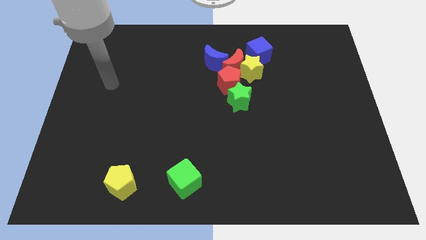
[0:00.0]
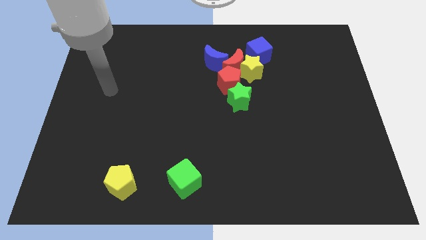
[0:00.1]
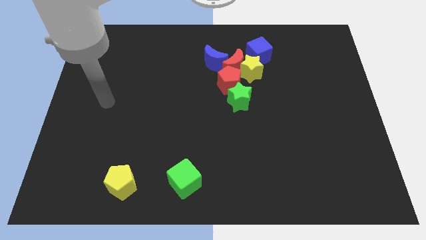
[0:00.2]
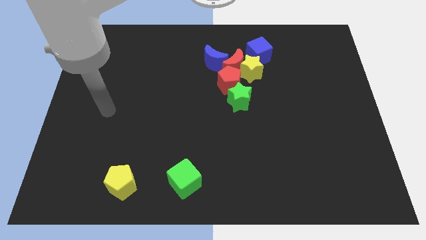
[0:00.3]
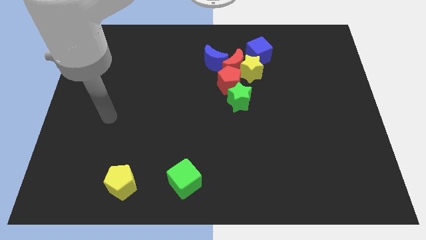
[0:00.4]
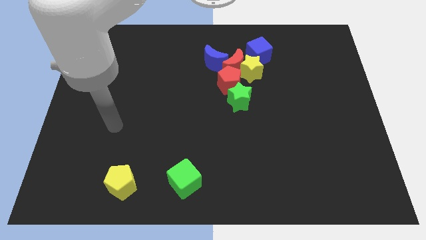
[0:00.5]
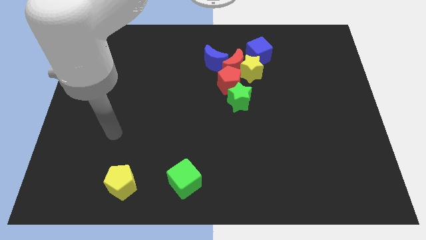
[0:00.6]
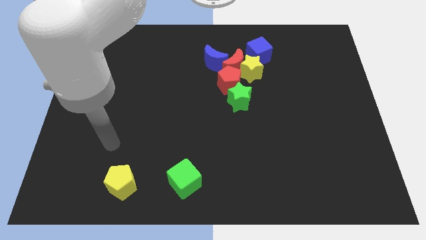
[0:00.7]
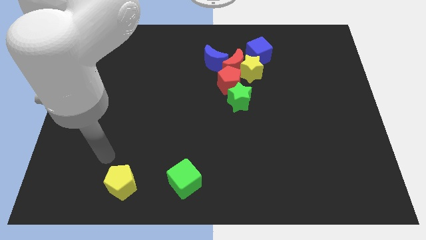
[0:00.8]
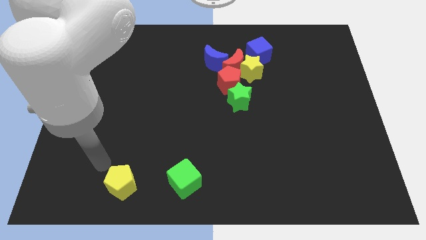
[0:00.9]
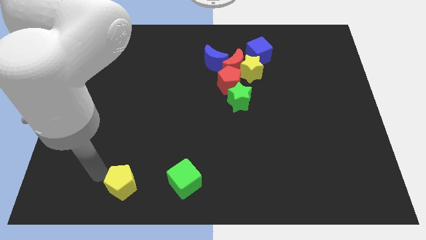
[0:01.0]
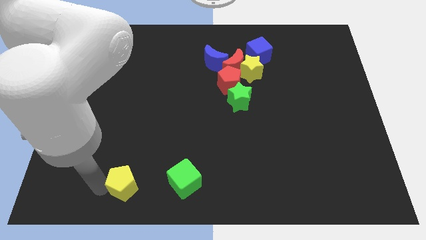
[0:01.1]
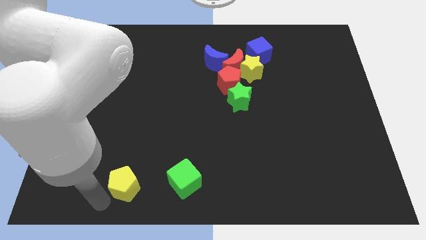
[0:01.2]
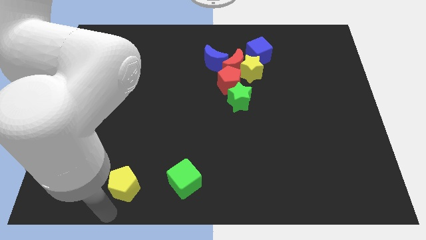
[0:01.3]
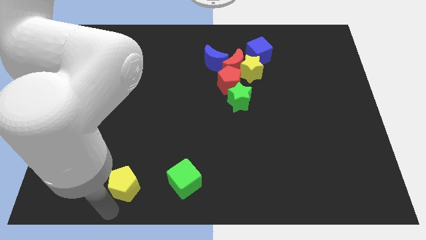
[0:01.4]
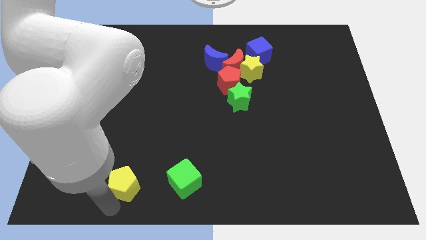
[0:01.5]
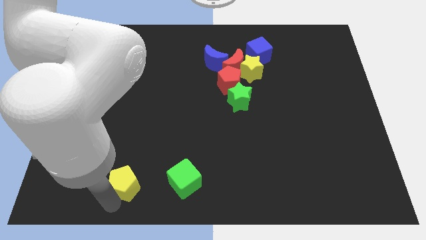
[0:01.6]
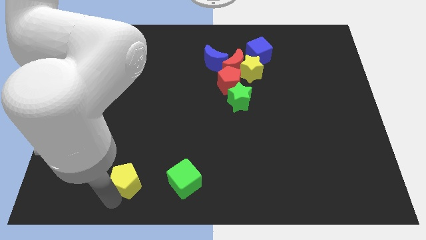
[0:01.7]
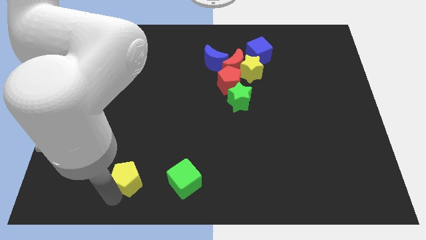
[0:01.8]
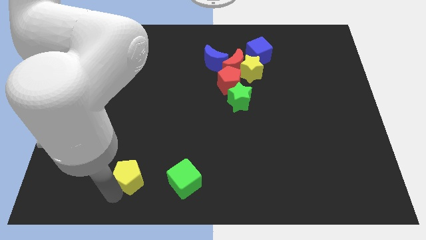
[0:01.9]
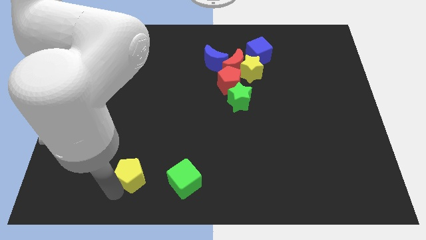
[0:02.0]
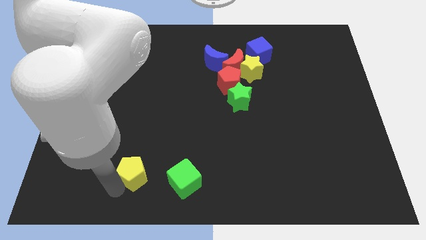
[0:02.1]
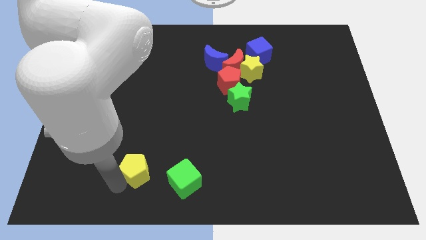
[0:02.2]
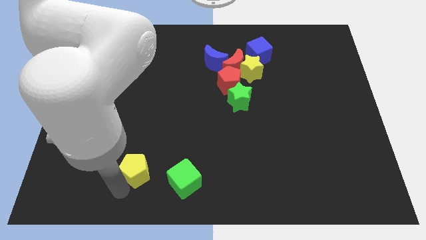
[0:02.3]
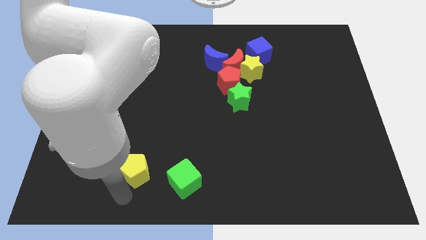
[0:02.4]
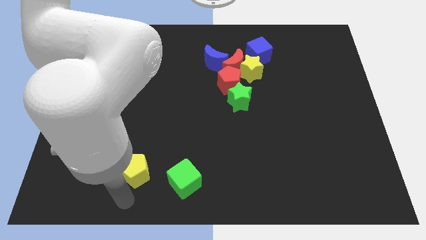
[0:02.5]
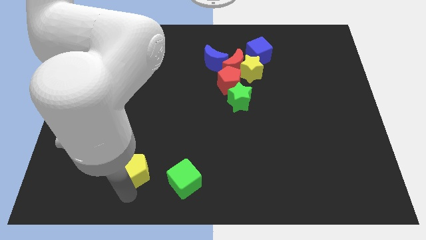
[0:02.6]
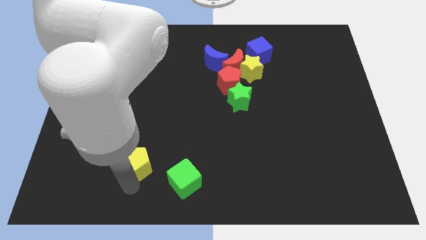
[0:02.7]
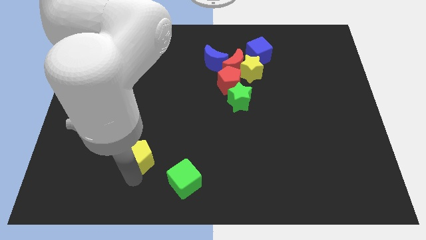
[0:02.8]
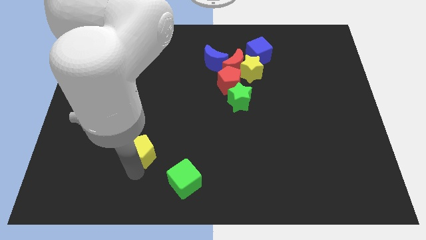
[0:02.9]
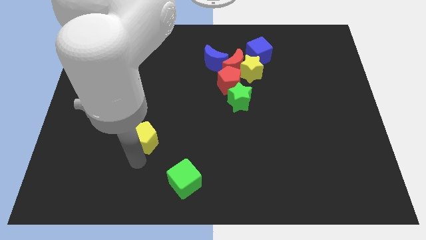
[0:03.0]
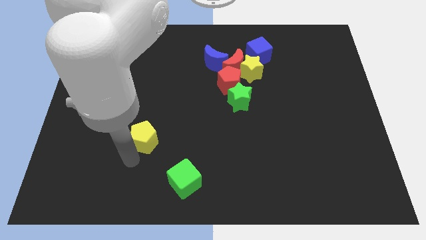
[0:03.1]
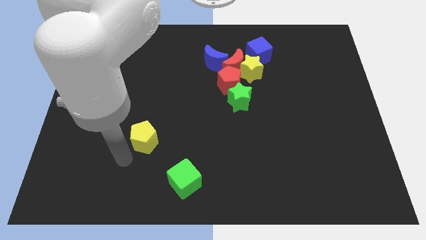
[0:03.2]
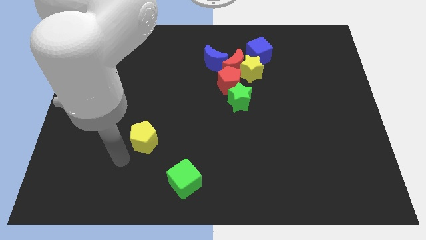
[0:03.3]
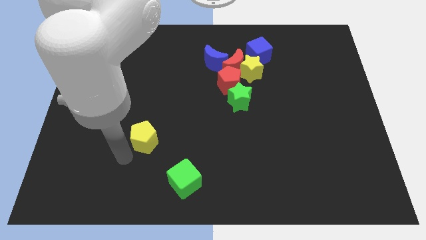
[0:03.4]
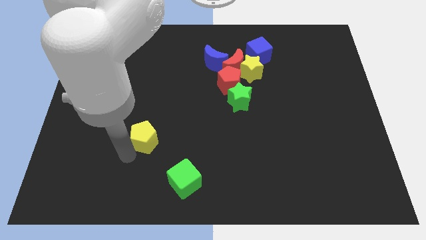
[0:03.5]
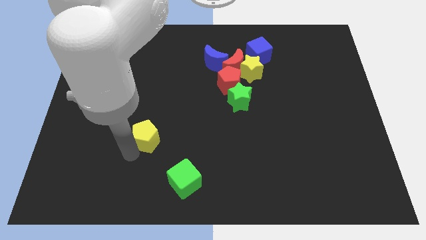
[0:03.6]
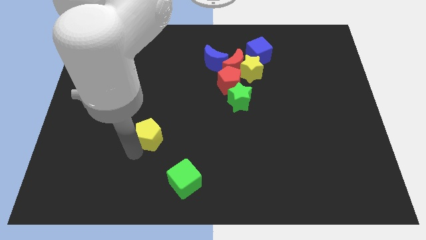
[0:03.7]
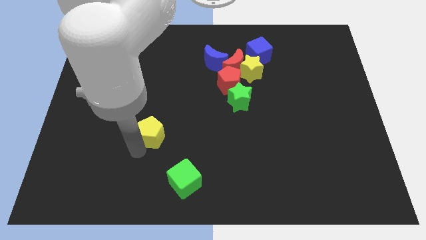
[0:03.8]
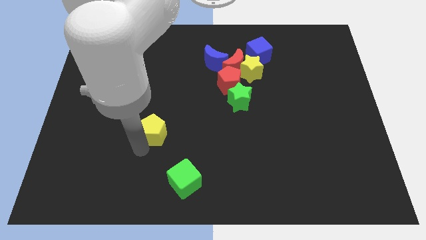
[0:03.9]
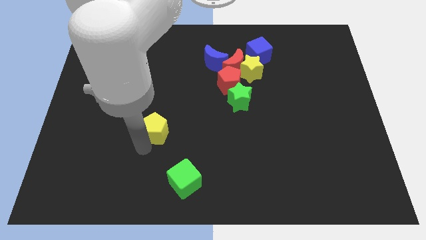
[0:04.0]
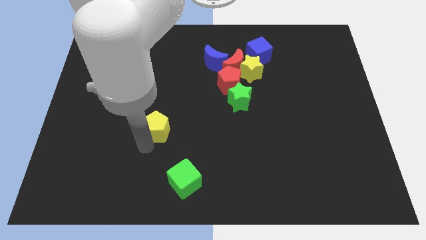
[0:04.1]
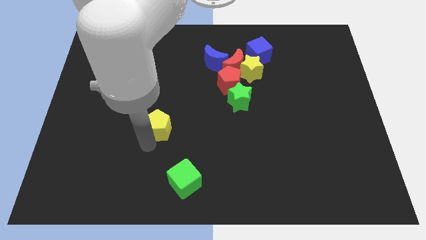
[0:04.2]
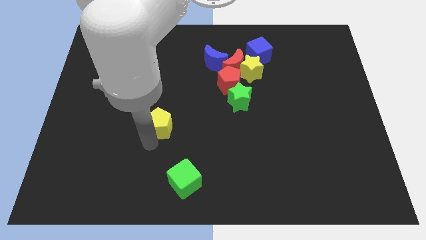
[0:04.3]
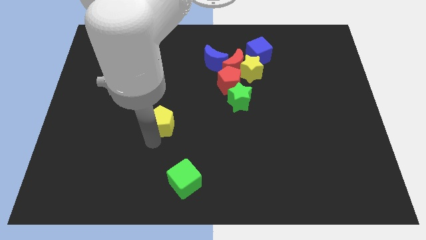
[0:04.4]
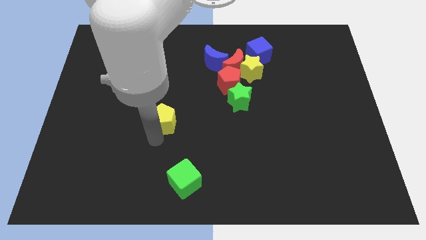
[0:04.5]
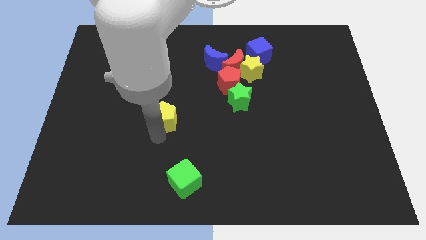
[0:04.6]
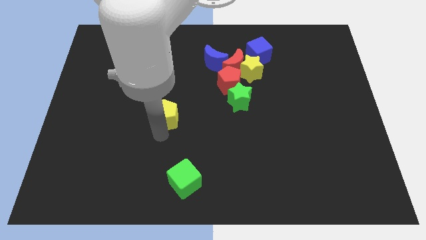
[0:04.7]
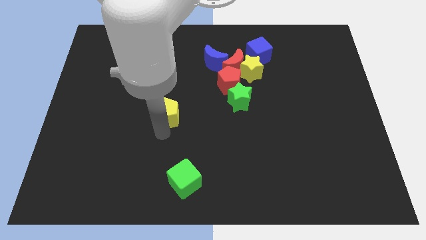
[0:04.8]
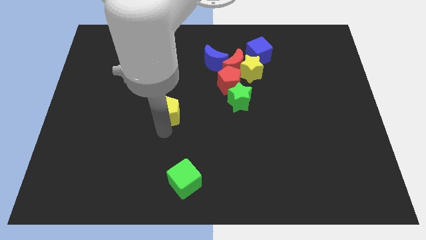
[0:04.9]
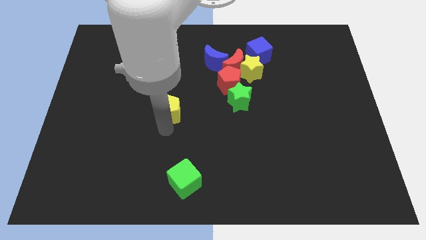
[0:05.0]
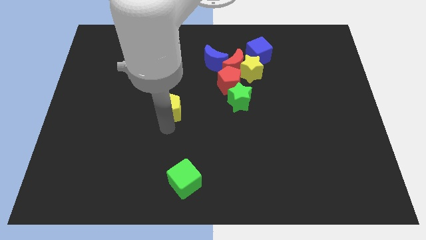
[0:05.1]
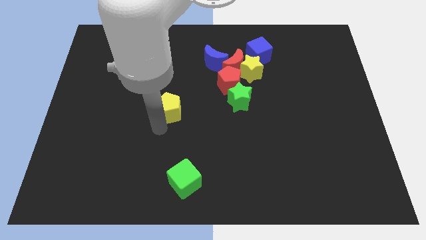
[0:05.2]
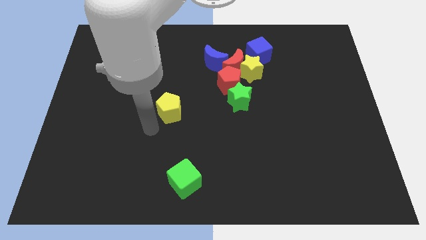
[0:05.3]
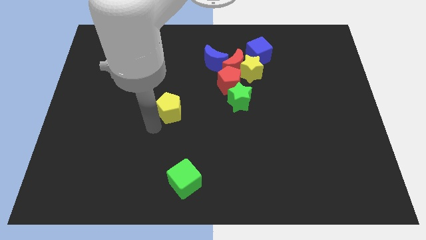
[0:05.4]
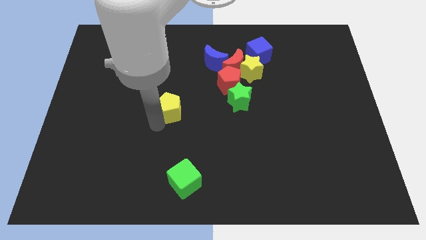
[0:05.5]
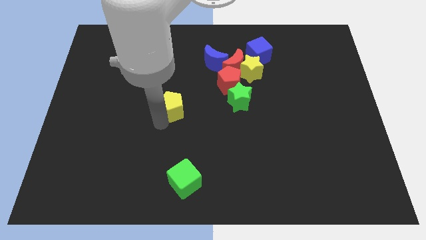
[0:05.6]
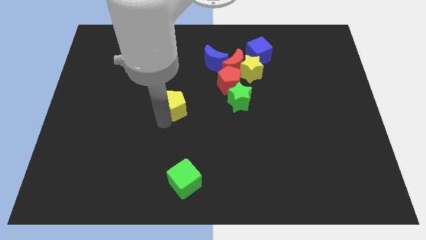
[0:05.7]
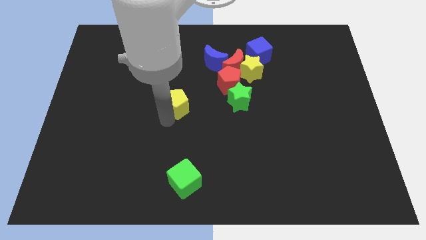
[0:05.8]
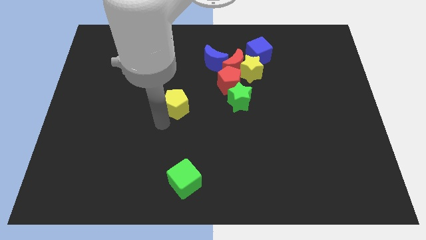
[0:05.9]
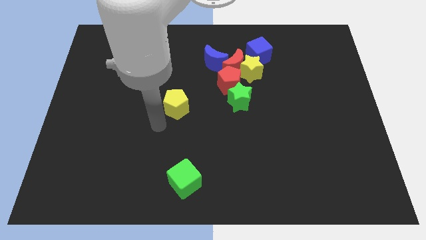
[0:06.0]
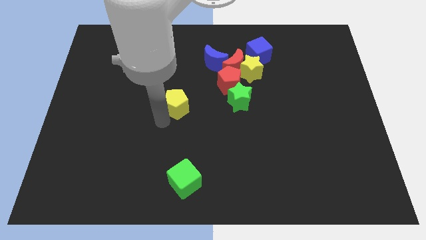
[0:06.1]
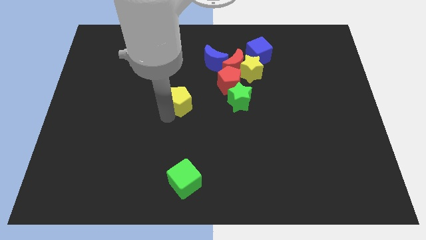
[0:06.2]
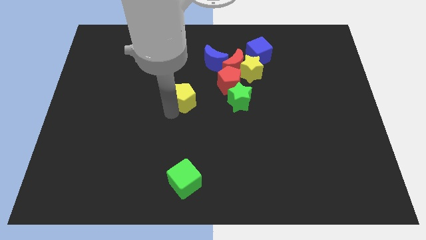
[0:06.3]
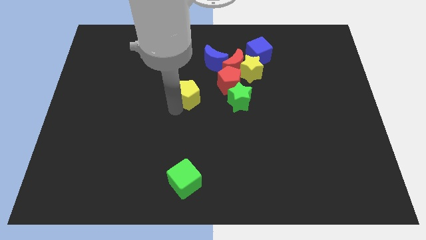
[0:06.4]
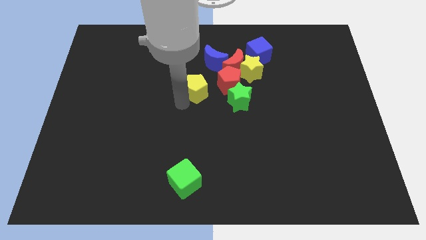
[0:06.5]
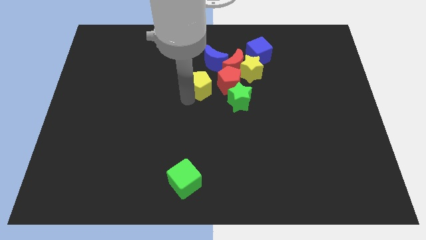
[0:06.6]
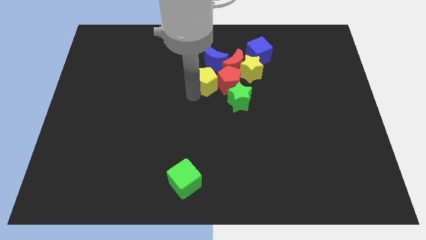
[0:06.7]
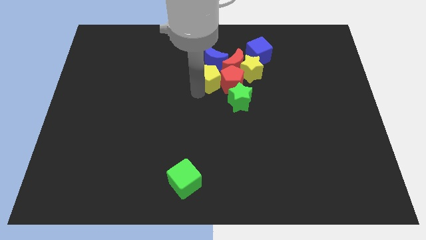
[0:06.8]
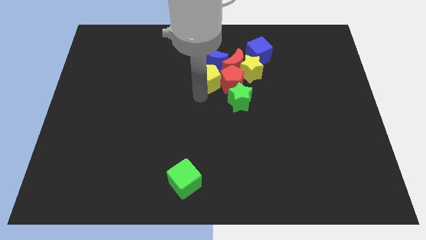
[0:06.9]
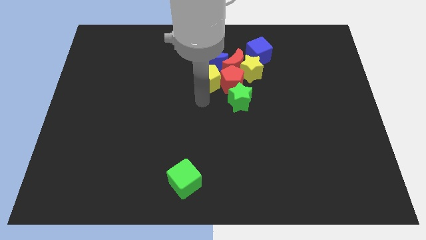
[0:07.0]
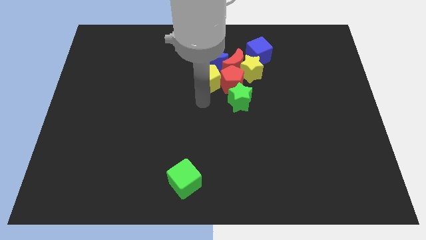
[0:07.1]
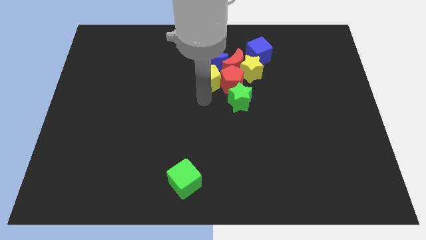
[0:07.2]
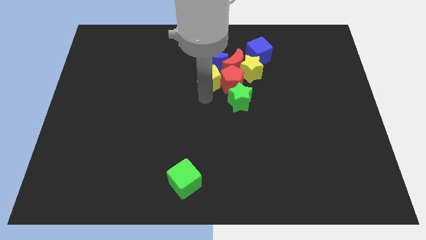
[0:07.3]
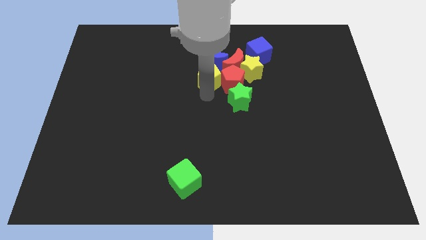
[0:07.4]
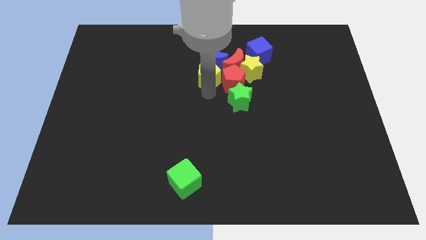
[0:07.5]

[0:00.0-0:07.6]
push the yellow pentagon towards the blue moon
